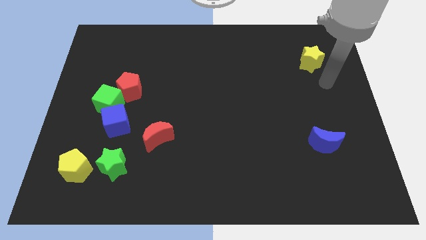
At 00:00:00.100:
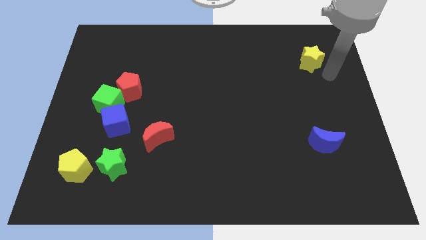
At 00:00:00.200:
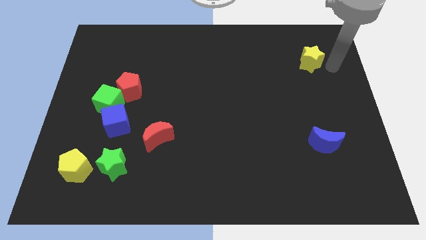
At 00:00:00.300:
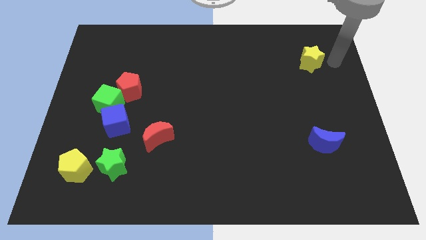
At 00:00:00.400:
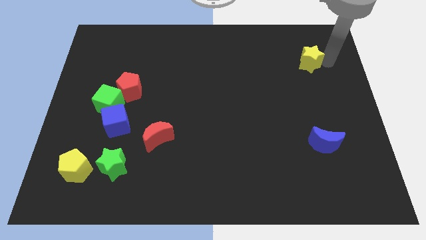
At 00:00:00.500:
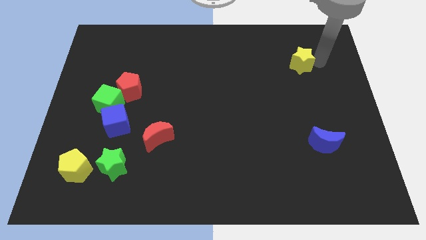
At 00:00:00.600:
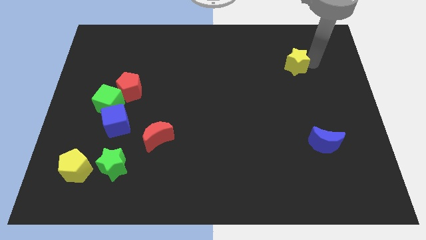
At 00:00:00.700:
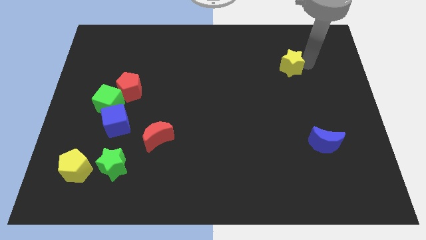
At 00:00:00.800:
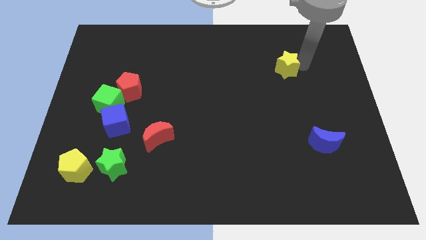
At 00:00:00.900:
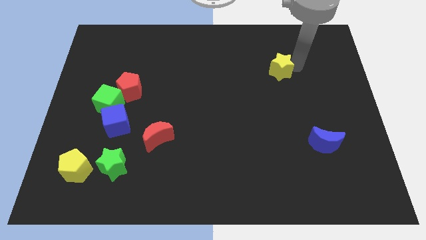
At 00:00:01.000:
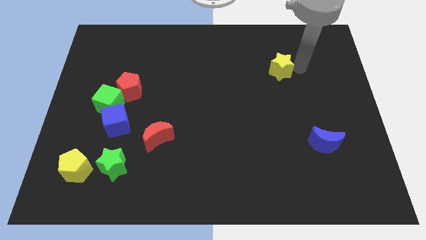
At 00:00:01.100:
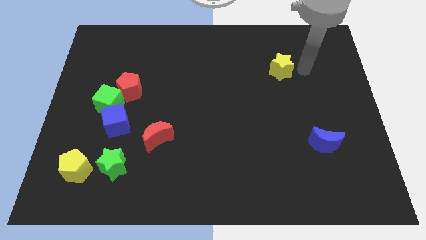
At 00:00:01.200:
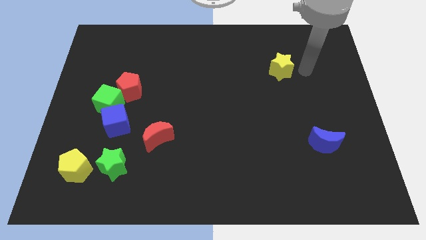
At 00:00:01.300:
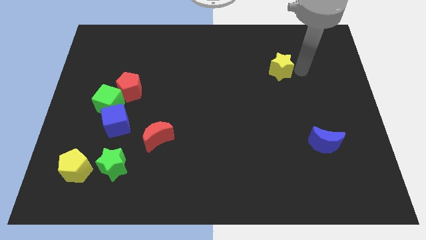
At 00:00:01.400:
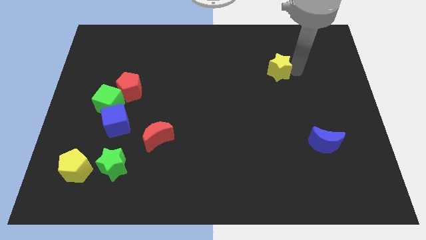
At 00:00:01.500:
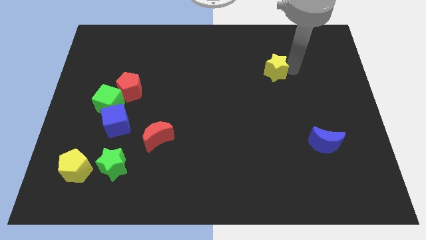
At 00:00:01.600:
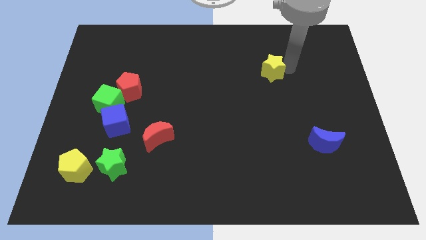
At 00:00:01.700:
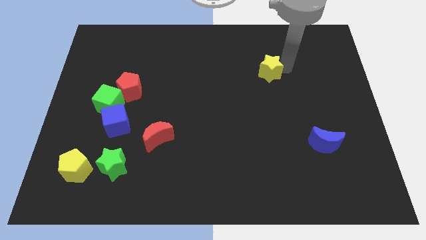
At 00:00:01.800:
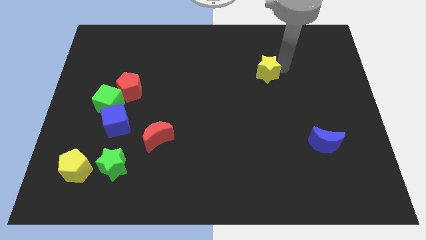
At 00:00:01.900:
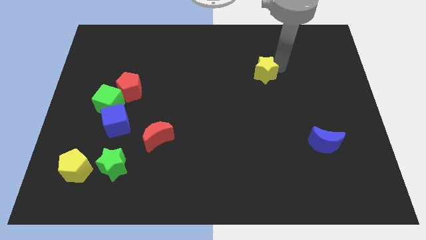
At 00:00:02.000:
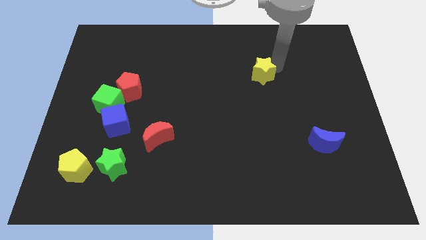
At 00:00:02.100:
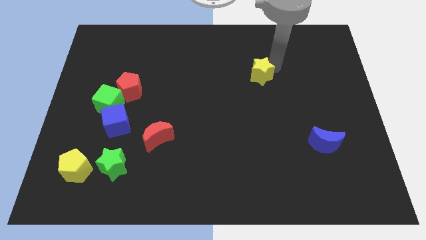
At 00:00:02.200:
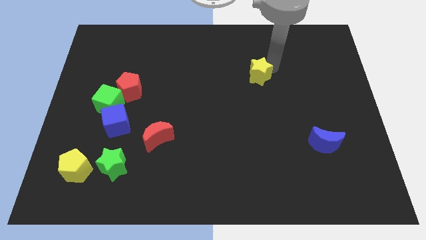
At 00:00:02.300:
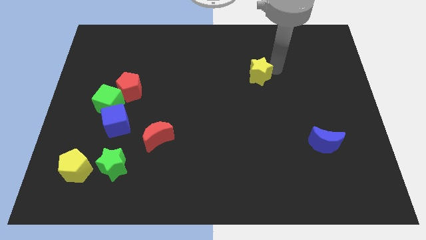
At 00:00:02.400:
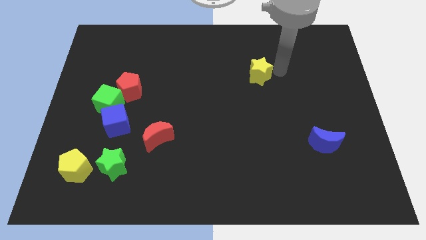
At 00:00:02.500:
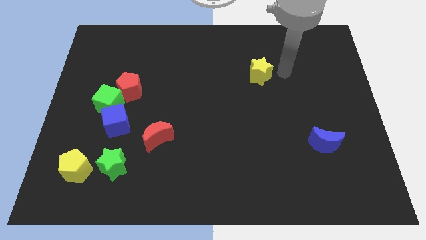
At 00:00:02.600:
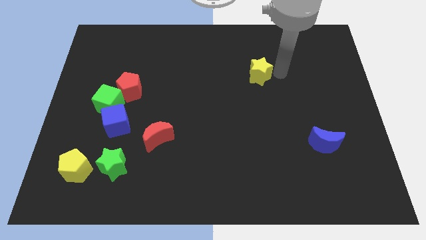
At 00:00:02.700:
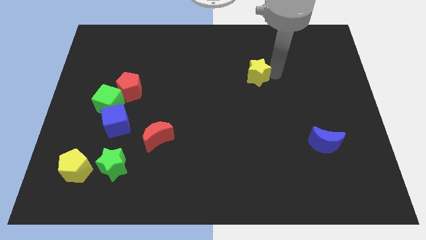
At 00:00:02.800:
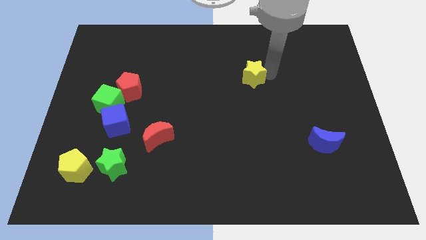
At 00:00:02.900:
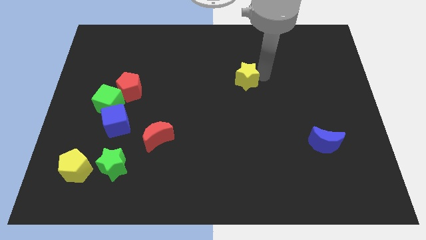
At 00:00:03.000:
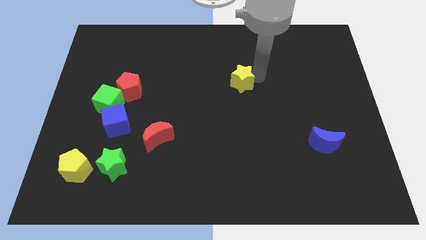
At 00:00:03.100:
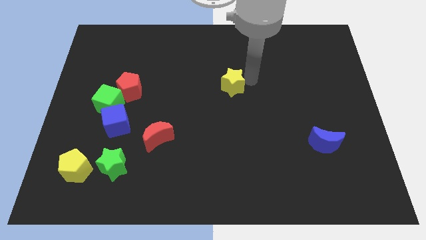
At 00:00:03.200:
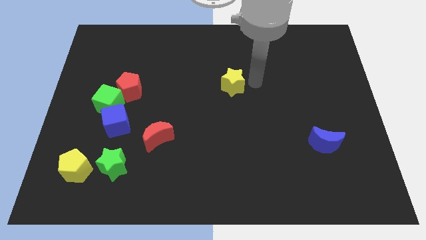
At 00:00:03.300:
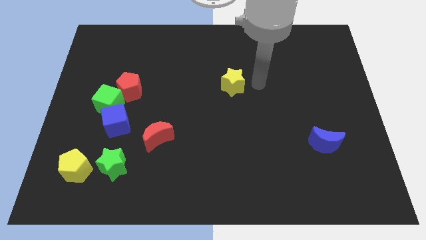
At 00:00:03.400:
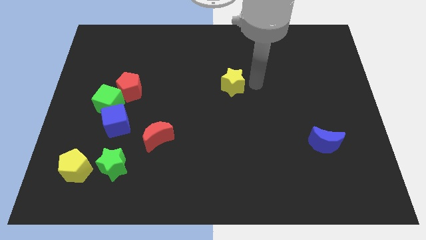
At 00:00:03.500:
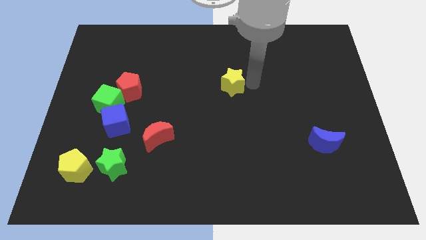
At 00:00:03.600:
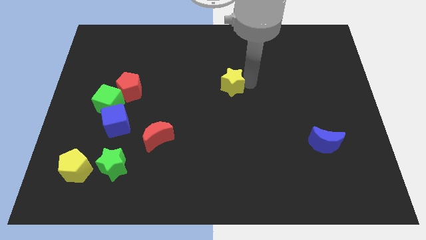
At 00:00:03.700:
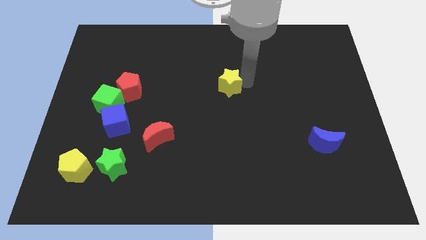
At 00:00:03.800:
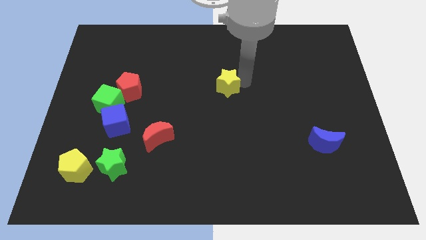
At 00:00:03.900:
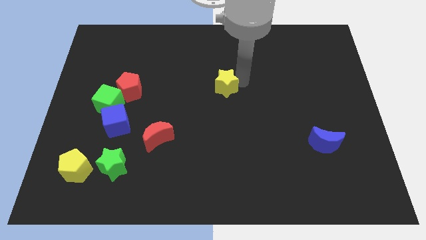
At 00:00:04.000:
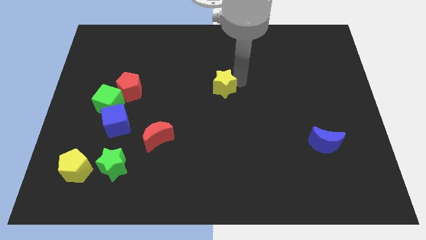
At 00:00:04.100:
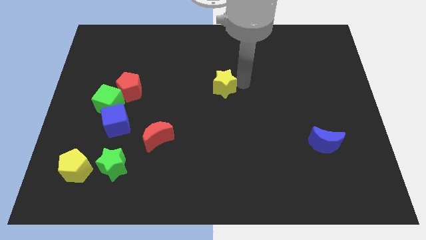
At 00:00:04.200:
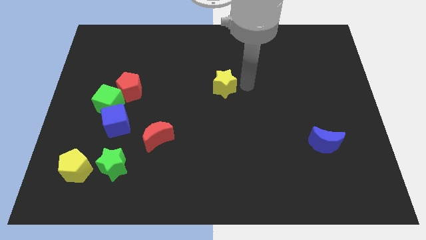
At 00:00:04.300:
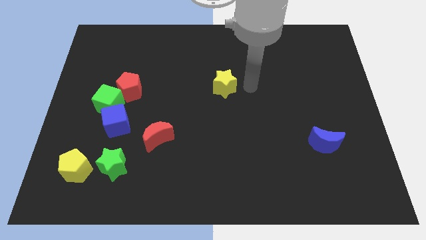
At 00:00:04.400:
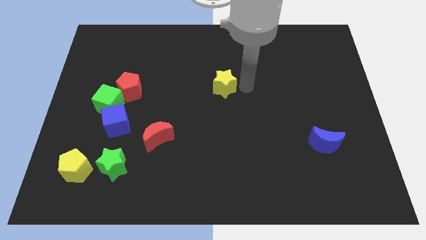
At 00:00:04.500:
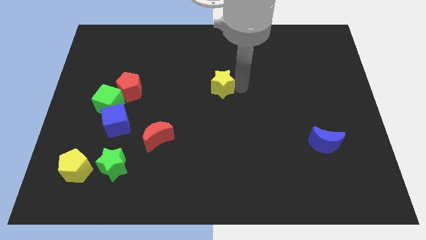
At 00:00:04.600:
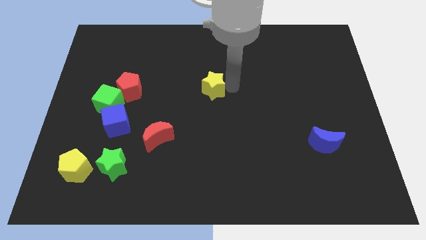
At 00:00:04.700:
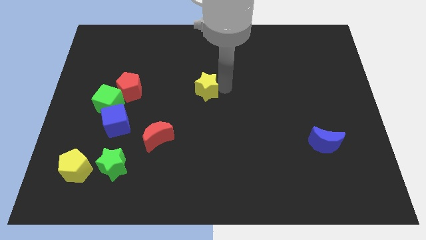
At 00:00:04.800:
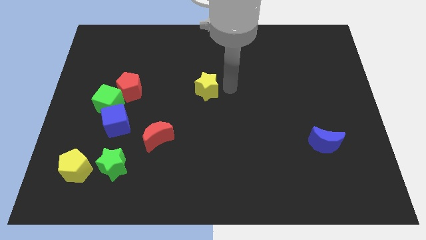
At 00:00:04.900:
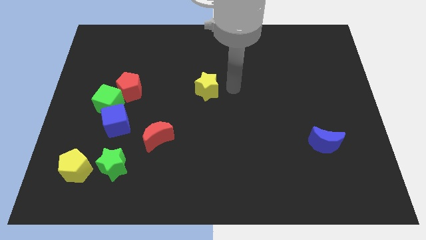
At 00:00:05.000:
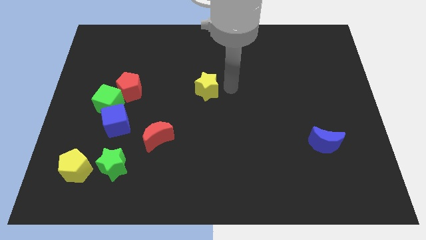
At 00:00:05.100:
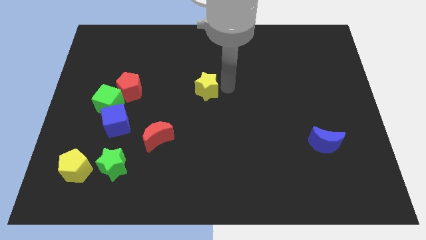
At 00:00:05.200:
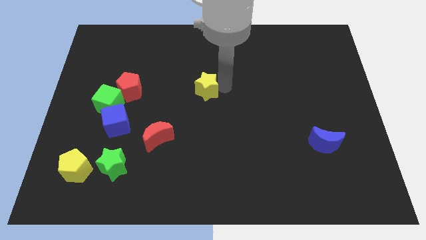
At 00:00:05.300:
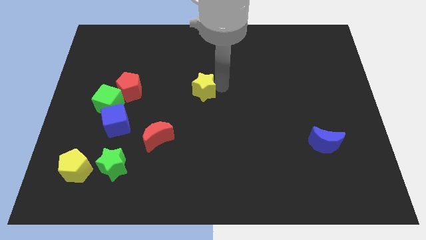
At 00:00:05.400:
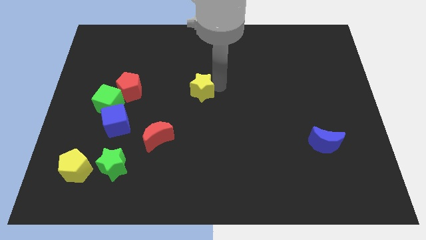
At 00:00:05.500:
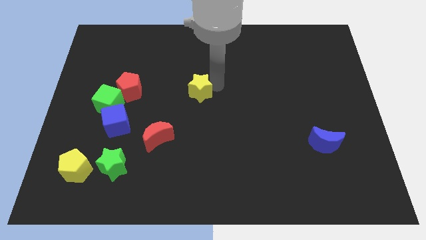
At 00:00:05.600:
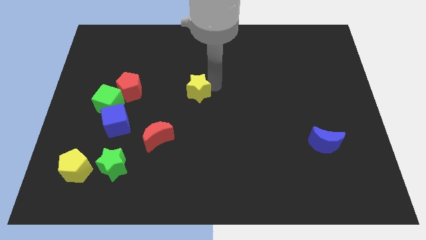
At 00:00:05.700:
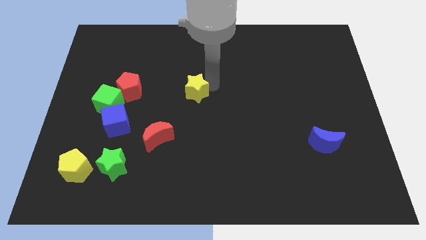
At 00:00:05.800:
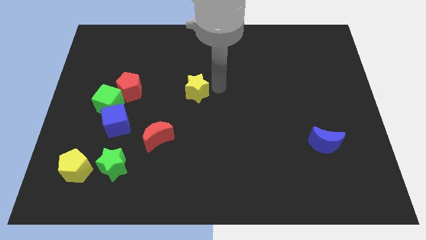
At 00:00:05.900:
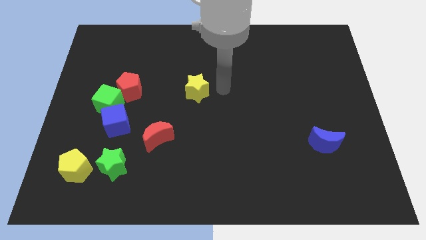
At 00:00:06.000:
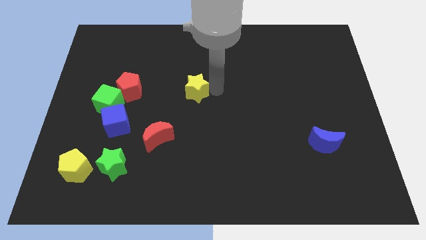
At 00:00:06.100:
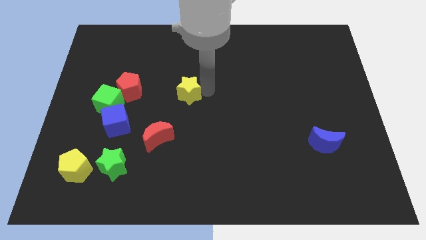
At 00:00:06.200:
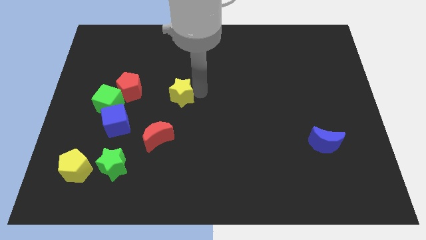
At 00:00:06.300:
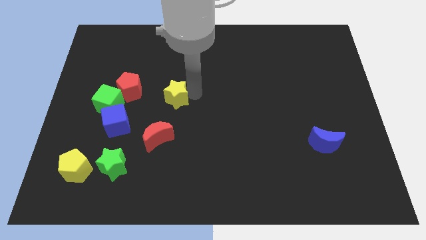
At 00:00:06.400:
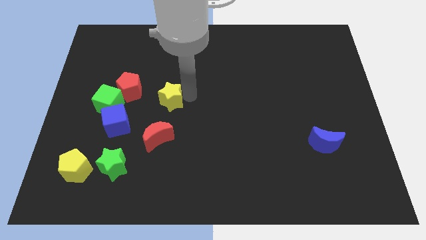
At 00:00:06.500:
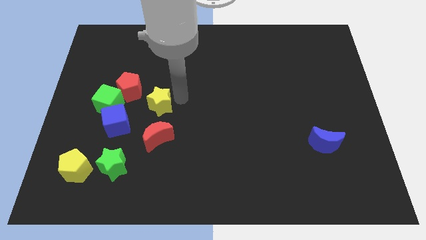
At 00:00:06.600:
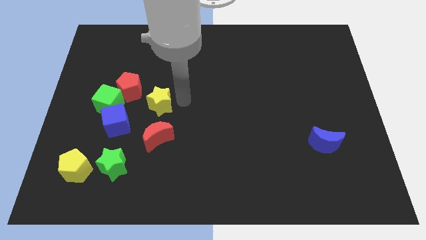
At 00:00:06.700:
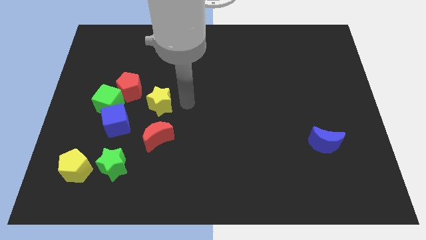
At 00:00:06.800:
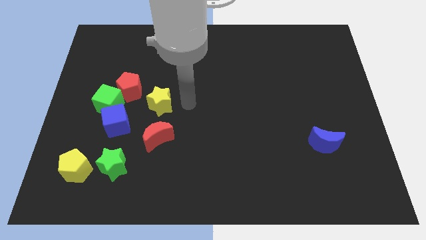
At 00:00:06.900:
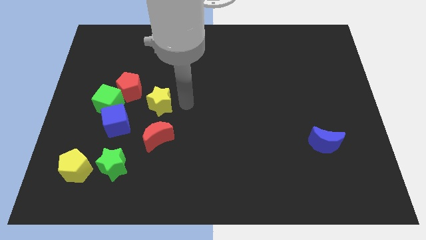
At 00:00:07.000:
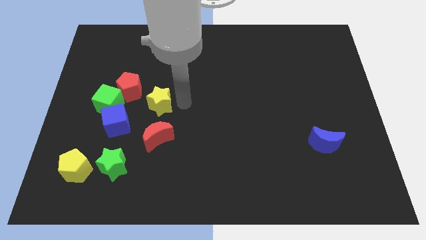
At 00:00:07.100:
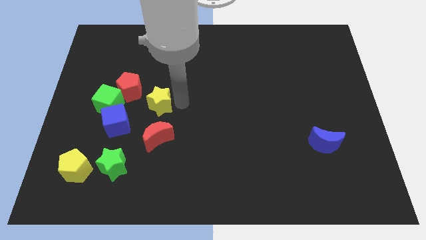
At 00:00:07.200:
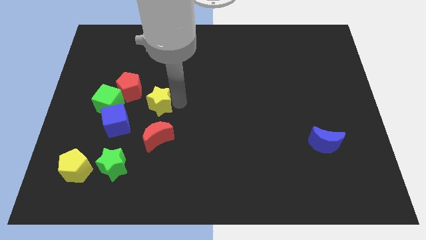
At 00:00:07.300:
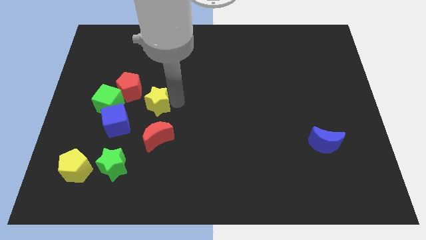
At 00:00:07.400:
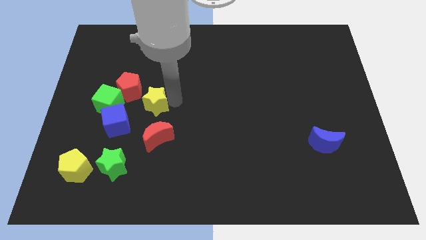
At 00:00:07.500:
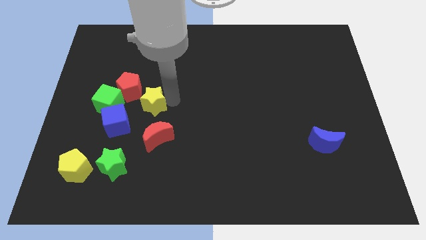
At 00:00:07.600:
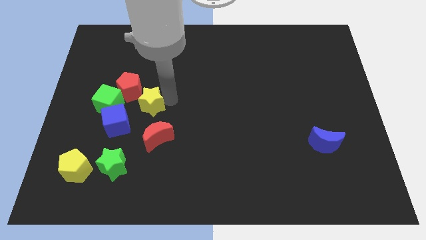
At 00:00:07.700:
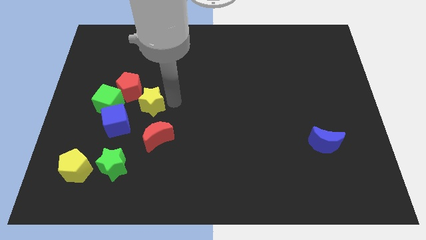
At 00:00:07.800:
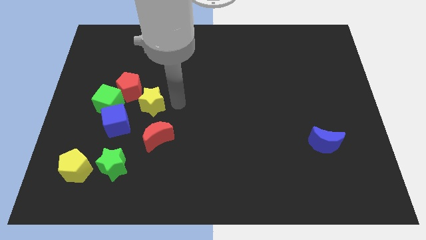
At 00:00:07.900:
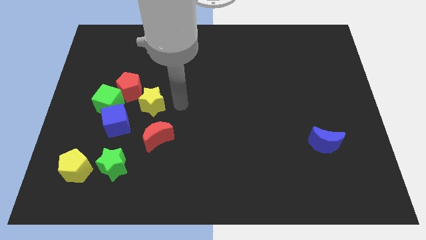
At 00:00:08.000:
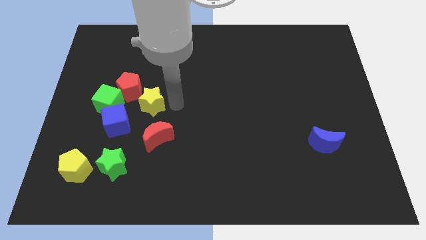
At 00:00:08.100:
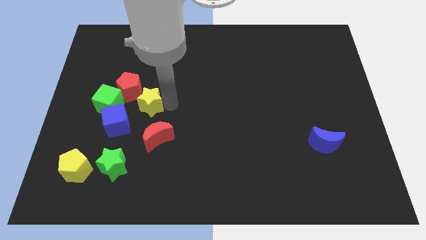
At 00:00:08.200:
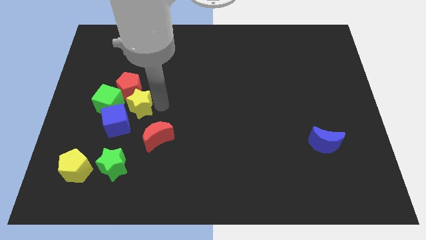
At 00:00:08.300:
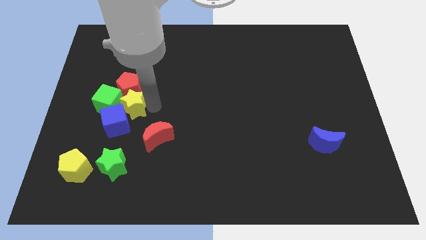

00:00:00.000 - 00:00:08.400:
slide the yellow star towards the green cube
